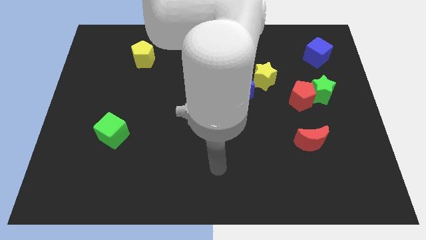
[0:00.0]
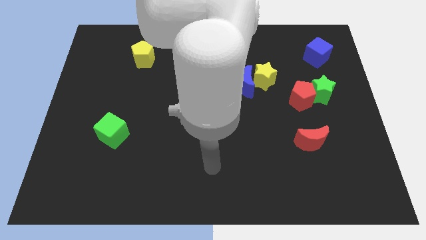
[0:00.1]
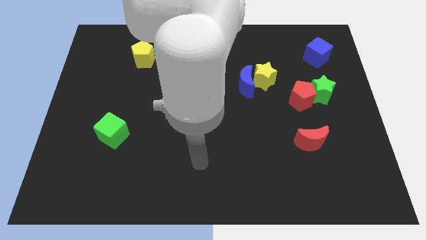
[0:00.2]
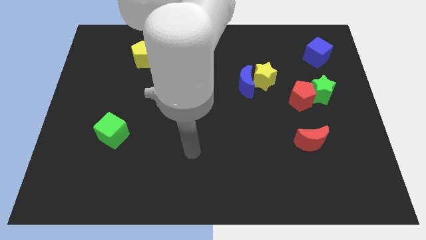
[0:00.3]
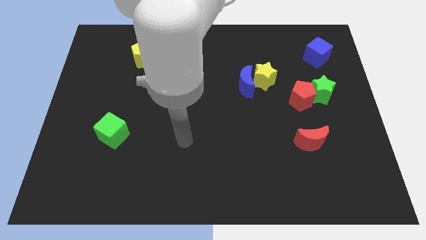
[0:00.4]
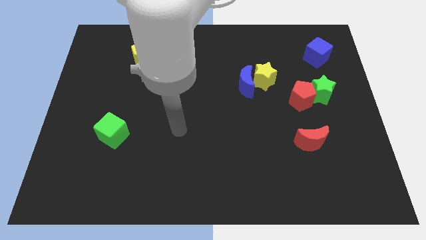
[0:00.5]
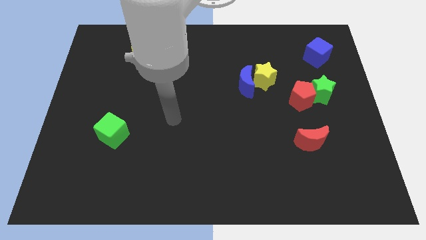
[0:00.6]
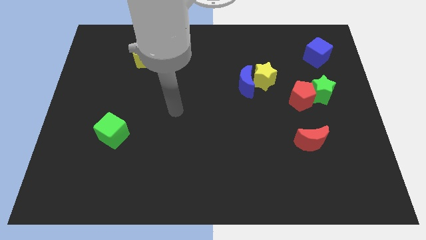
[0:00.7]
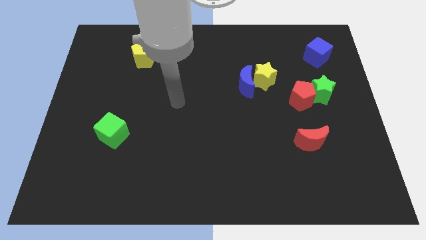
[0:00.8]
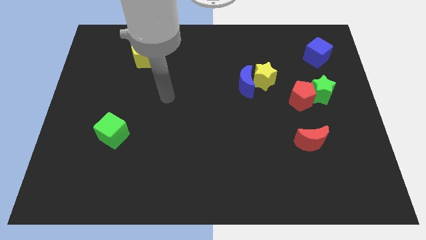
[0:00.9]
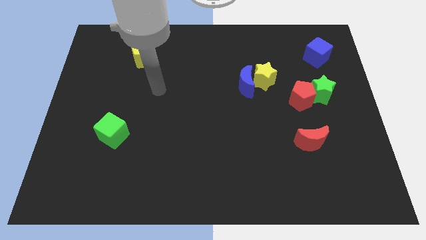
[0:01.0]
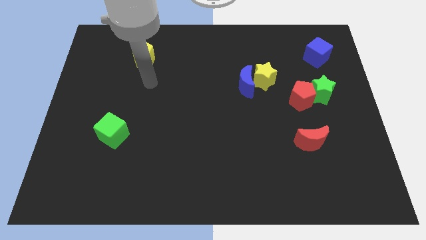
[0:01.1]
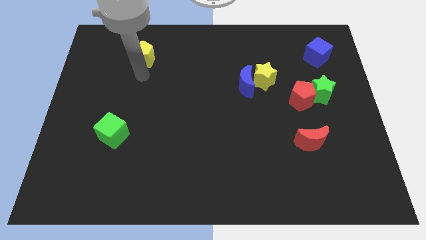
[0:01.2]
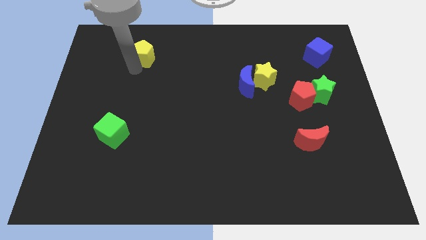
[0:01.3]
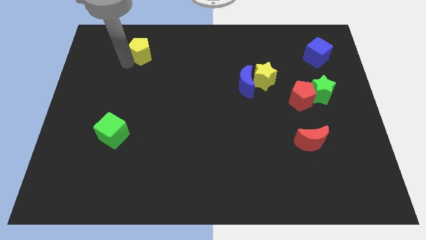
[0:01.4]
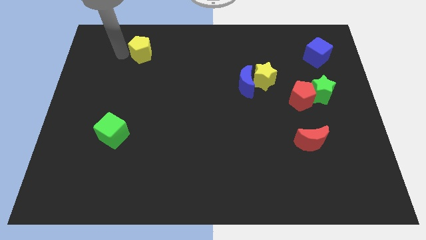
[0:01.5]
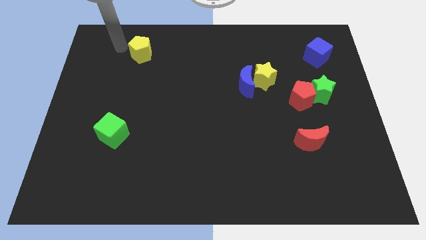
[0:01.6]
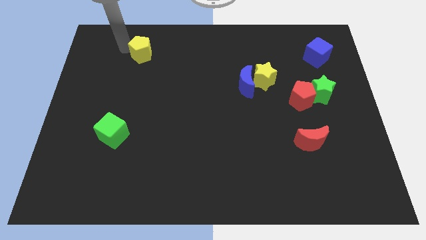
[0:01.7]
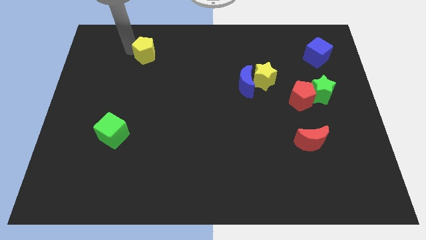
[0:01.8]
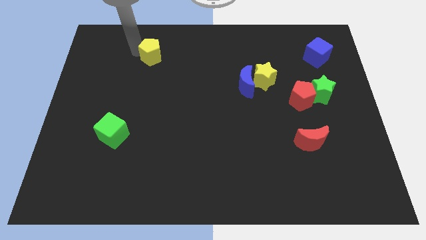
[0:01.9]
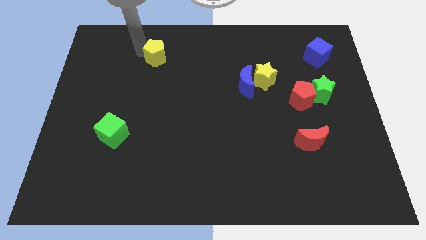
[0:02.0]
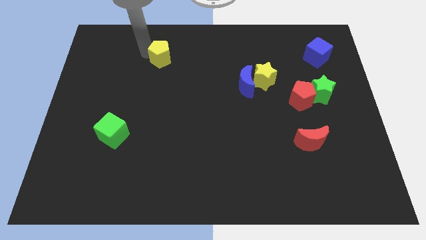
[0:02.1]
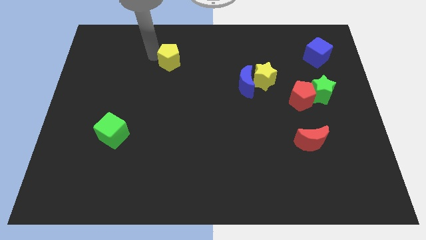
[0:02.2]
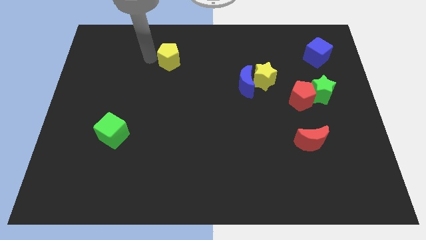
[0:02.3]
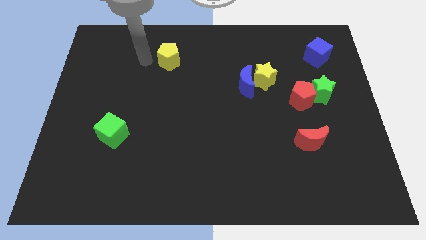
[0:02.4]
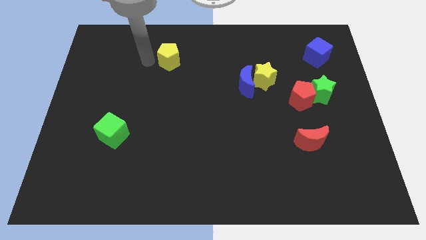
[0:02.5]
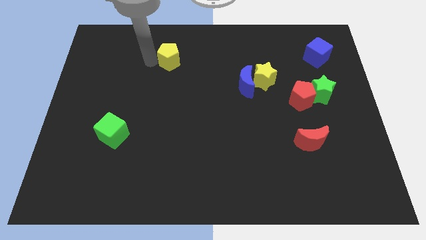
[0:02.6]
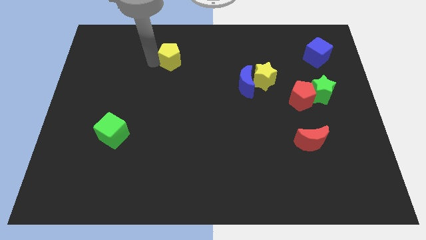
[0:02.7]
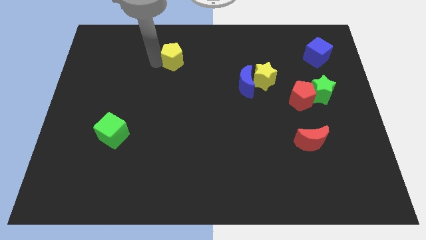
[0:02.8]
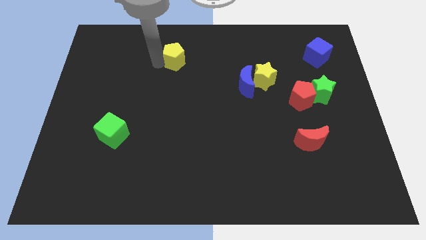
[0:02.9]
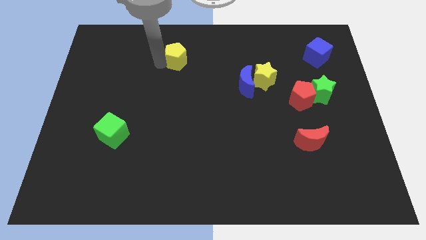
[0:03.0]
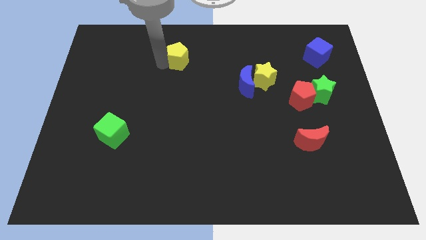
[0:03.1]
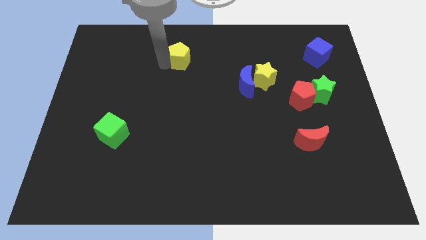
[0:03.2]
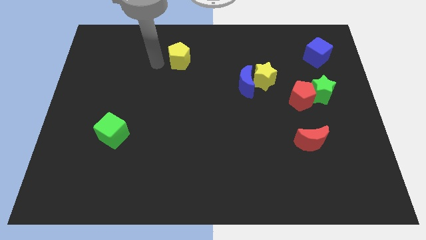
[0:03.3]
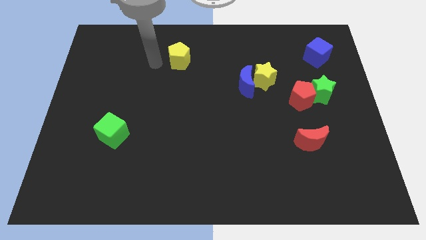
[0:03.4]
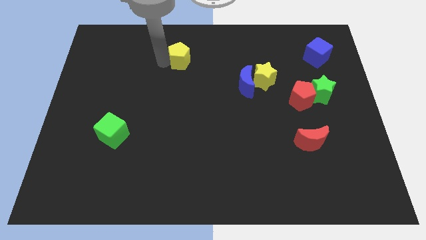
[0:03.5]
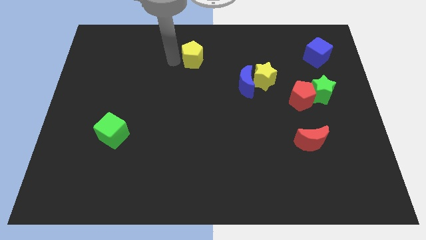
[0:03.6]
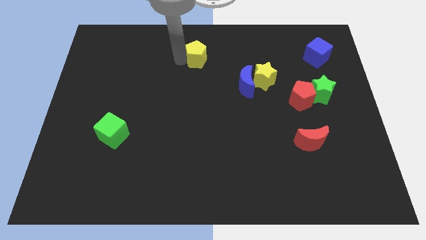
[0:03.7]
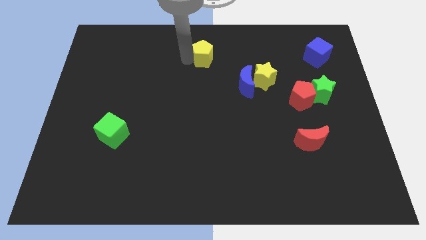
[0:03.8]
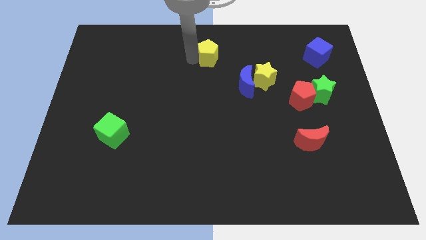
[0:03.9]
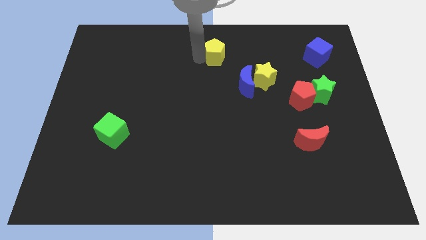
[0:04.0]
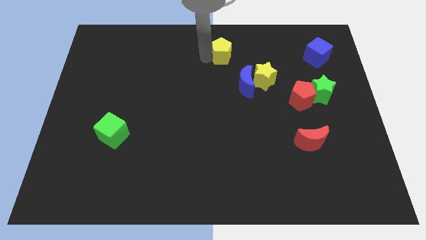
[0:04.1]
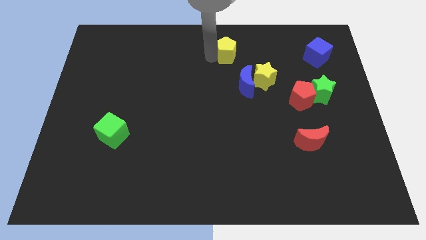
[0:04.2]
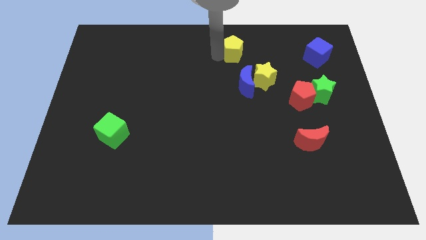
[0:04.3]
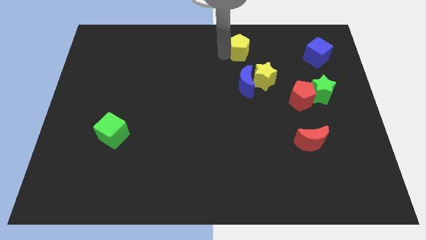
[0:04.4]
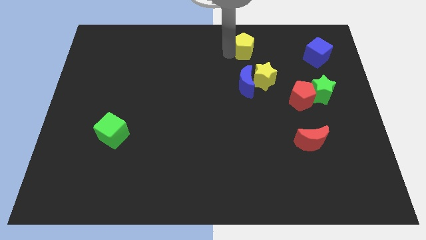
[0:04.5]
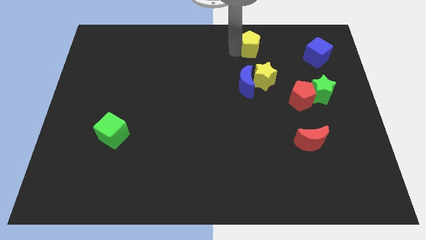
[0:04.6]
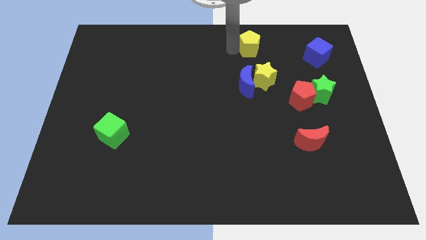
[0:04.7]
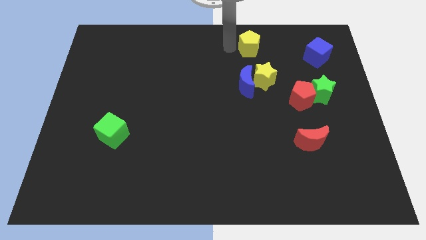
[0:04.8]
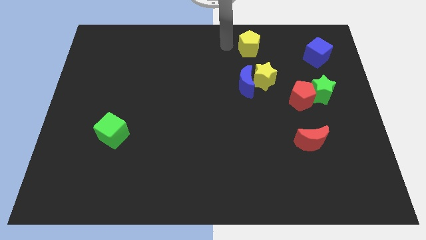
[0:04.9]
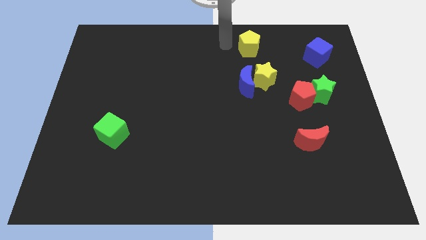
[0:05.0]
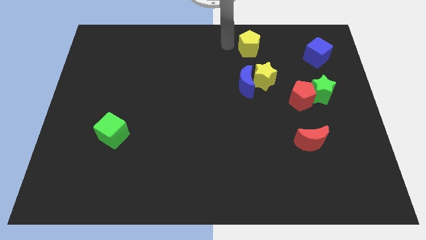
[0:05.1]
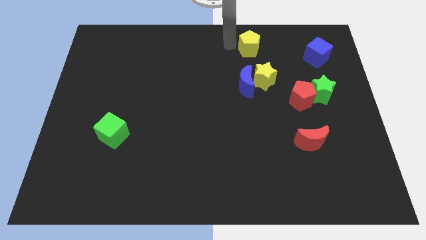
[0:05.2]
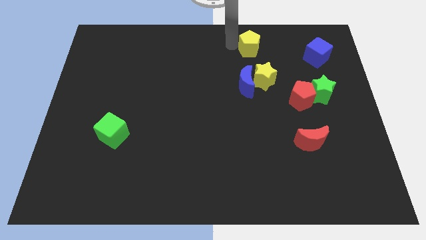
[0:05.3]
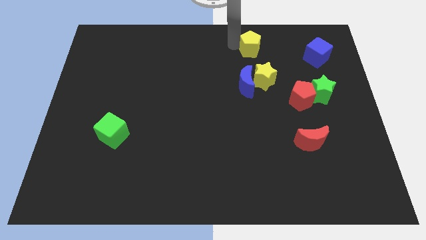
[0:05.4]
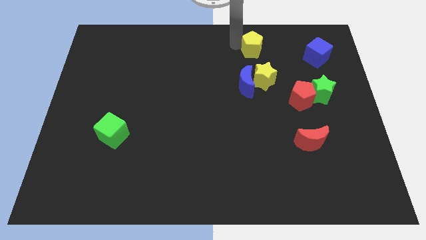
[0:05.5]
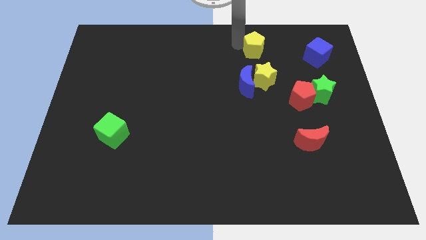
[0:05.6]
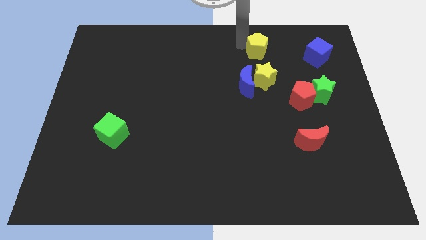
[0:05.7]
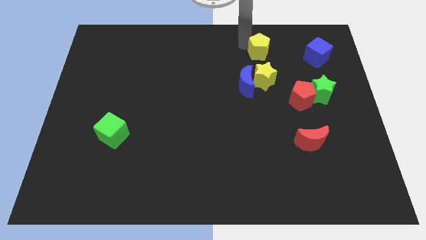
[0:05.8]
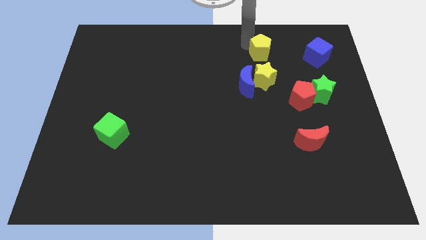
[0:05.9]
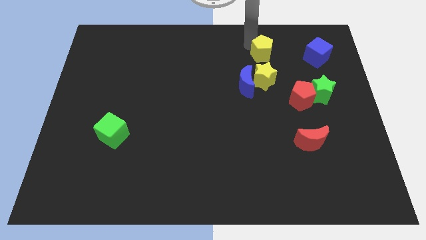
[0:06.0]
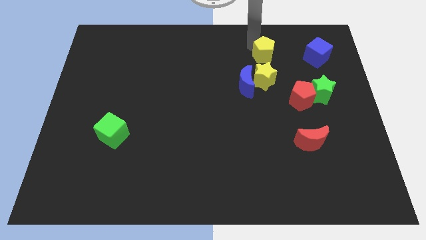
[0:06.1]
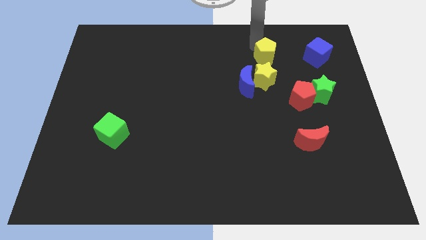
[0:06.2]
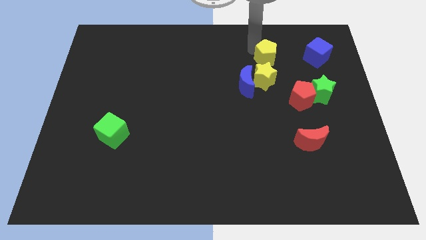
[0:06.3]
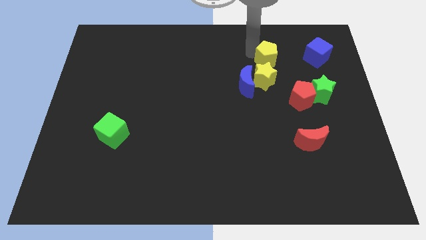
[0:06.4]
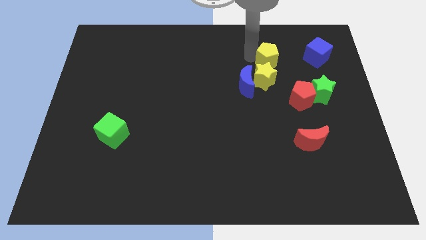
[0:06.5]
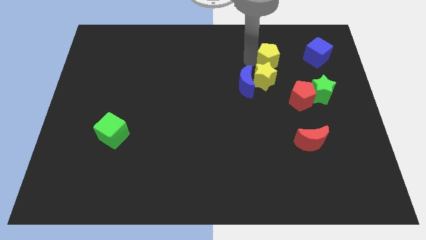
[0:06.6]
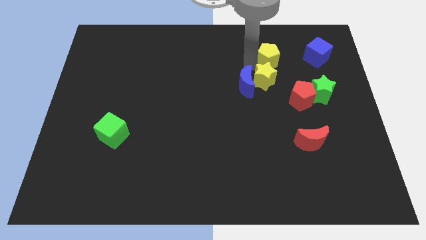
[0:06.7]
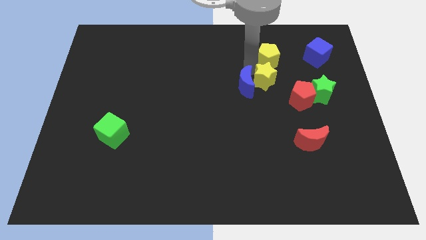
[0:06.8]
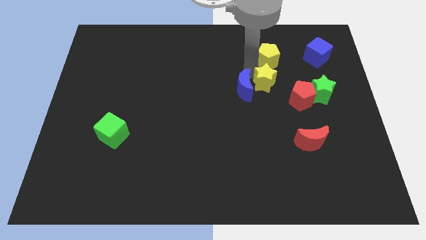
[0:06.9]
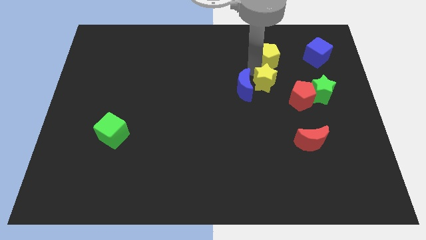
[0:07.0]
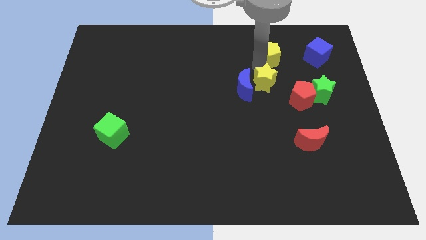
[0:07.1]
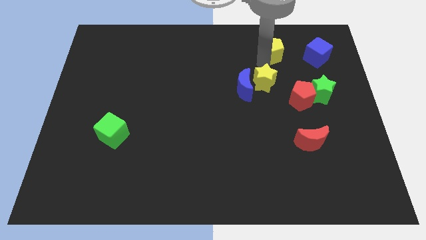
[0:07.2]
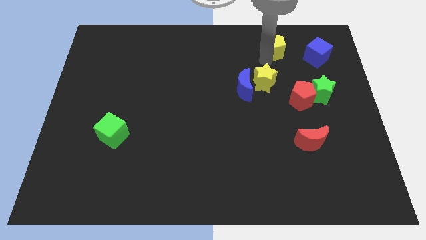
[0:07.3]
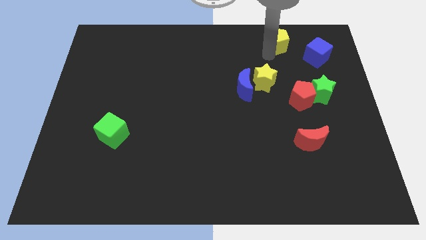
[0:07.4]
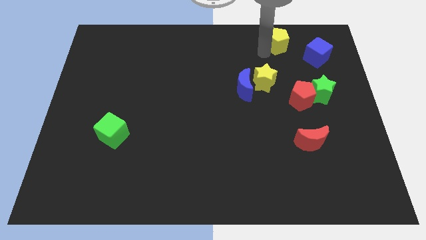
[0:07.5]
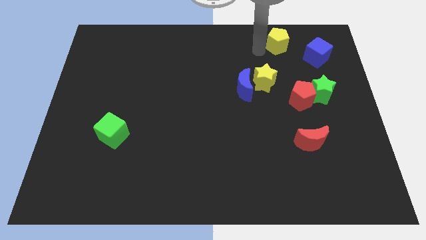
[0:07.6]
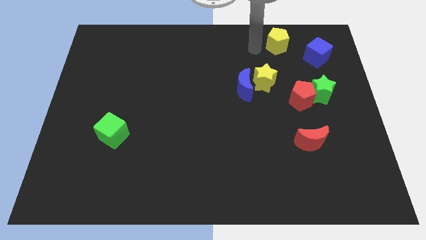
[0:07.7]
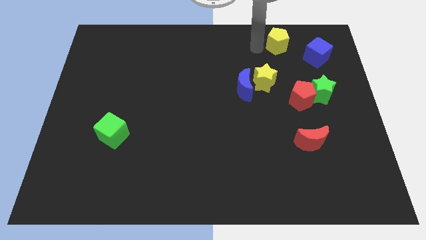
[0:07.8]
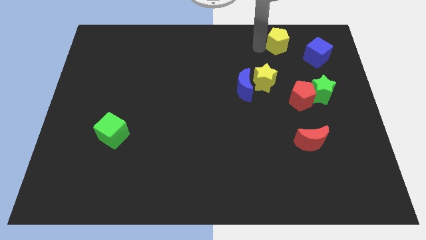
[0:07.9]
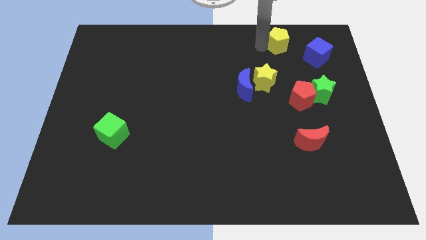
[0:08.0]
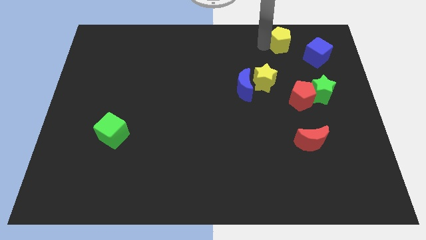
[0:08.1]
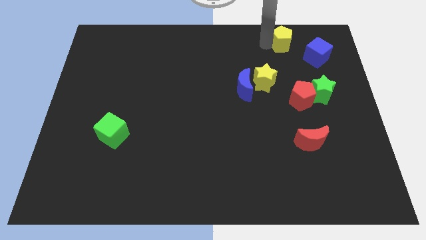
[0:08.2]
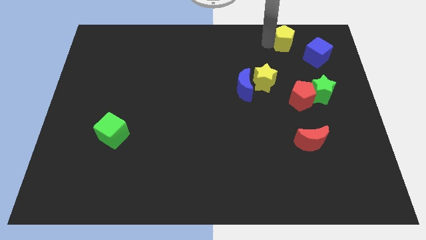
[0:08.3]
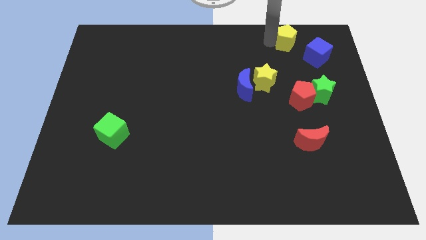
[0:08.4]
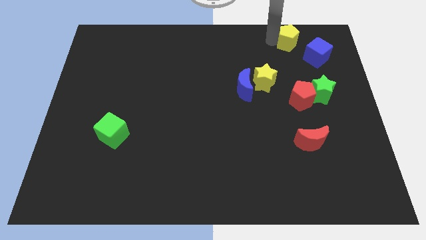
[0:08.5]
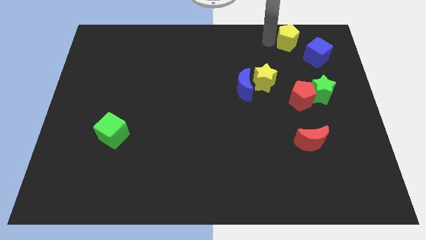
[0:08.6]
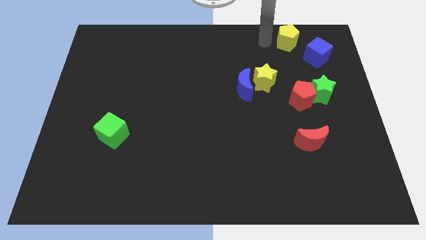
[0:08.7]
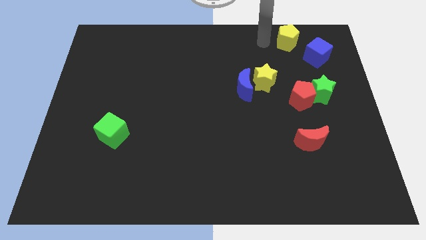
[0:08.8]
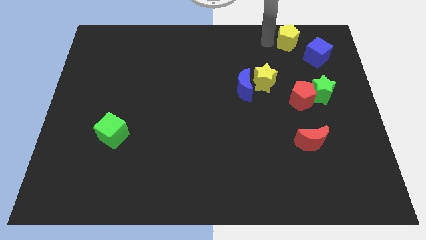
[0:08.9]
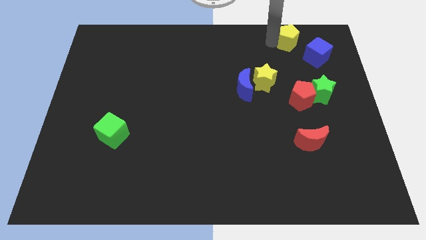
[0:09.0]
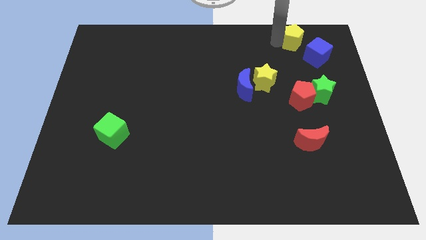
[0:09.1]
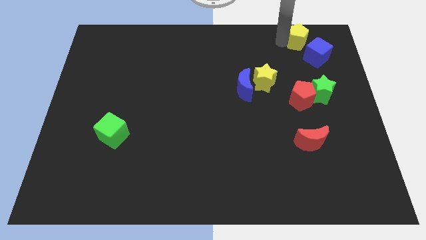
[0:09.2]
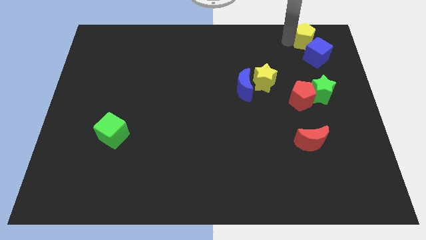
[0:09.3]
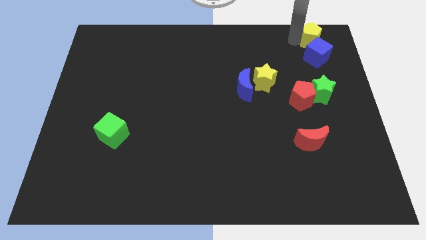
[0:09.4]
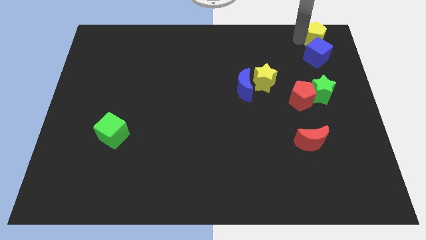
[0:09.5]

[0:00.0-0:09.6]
slide the yellow pentagon to the upper right corner
